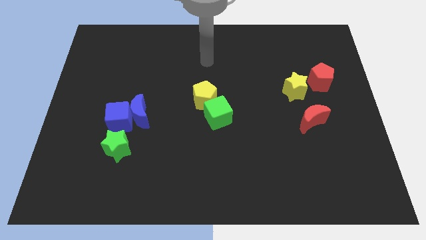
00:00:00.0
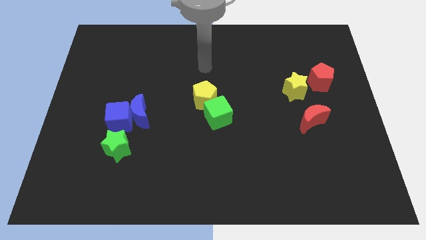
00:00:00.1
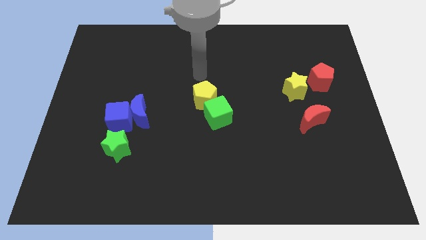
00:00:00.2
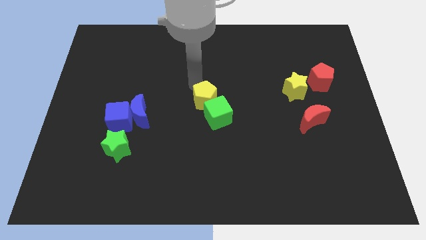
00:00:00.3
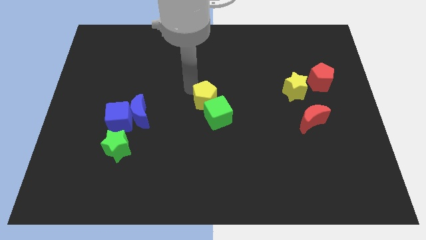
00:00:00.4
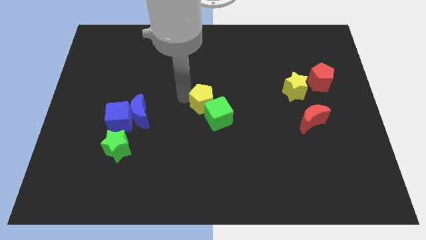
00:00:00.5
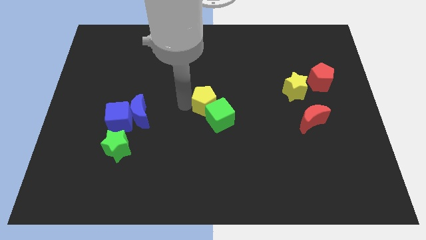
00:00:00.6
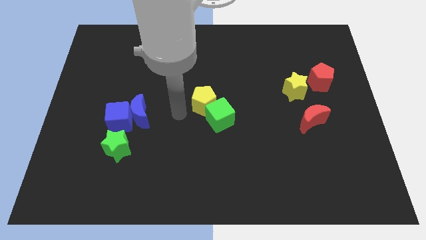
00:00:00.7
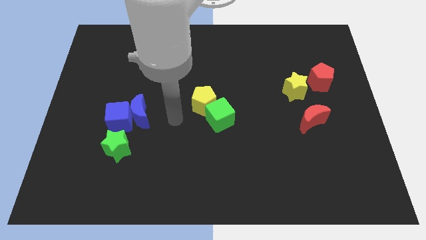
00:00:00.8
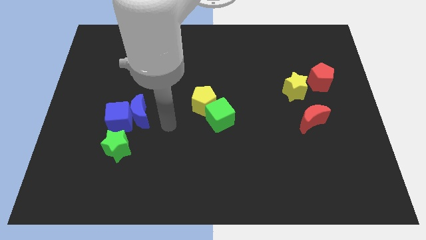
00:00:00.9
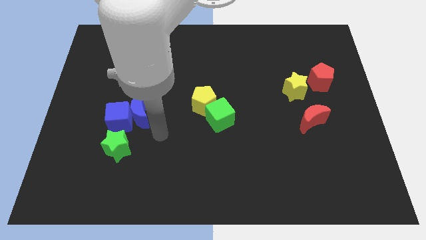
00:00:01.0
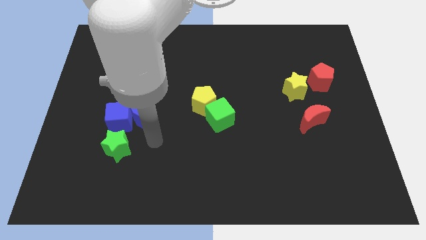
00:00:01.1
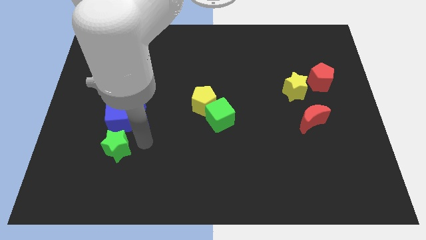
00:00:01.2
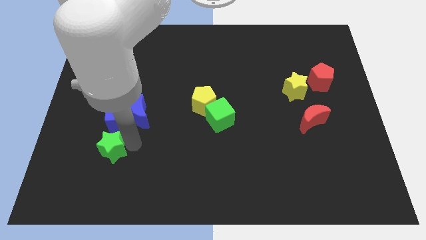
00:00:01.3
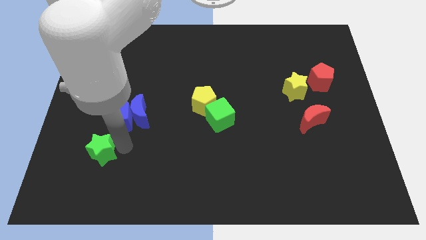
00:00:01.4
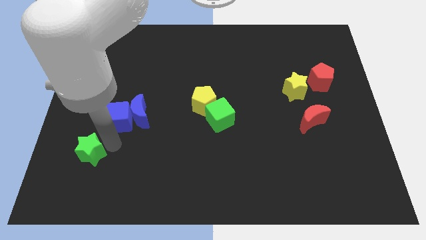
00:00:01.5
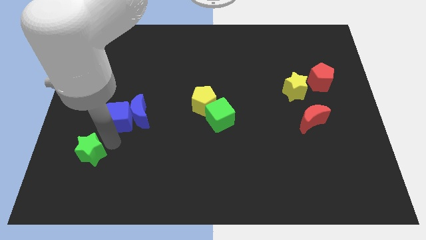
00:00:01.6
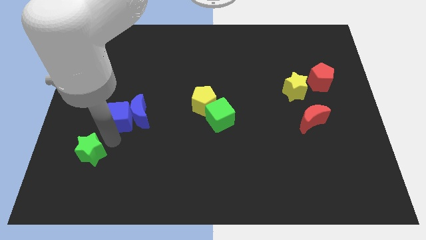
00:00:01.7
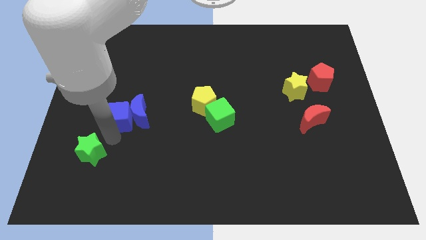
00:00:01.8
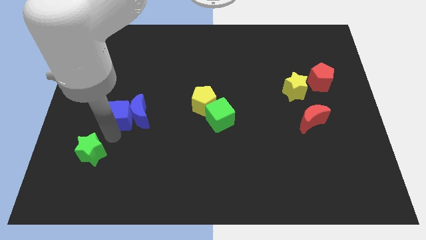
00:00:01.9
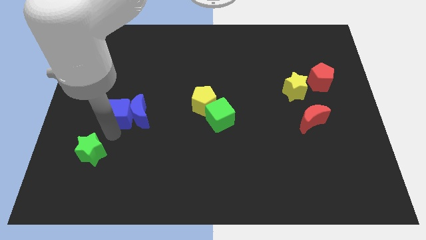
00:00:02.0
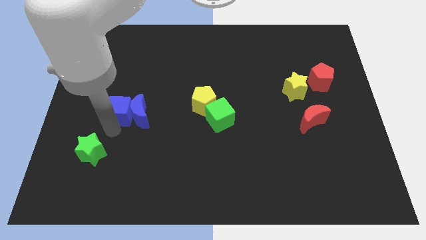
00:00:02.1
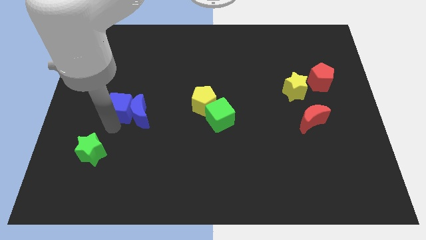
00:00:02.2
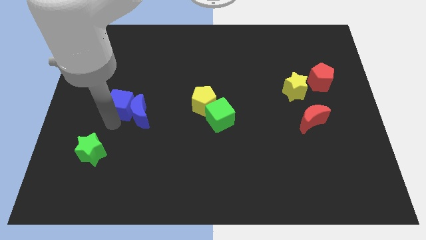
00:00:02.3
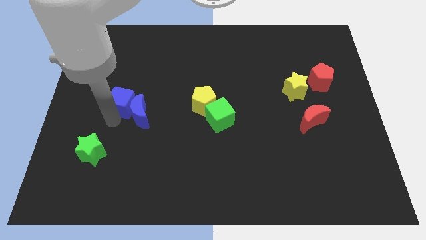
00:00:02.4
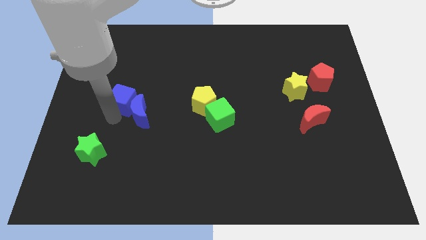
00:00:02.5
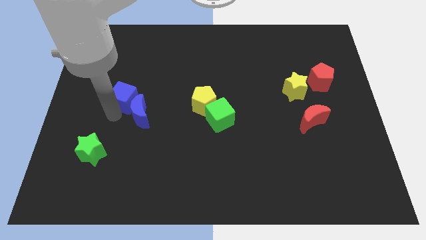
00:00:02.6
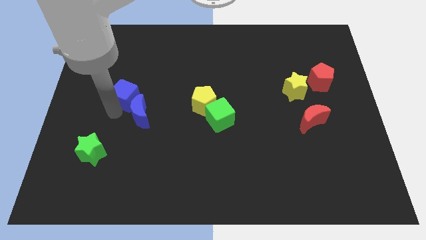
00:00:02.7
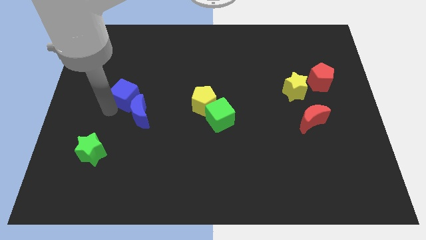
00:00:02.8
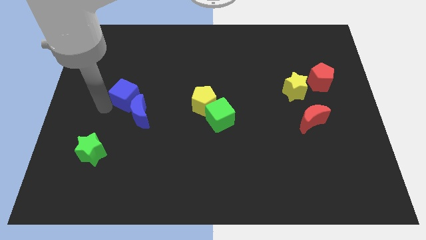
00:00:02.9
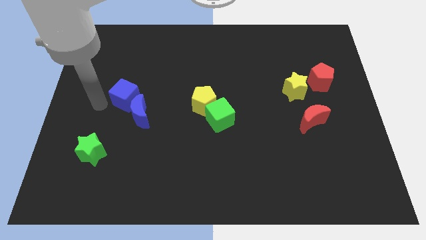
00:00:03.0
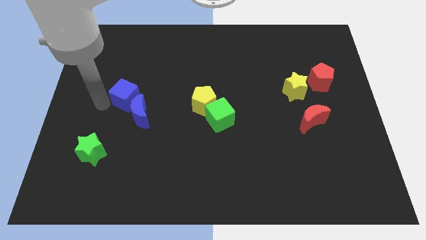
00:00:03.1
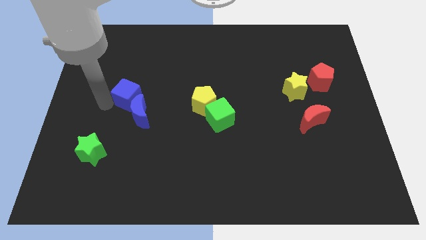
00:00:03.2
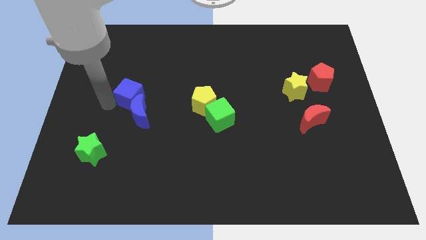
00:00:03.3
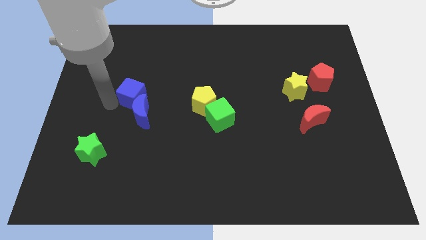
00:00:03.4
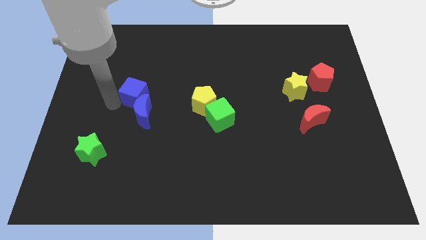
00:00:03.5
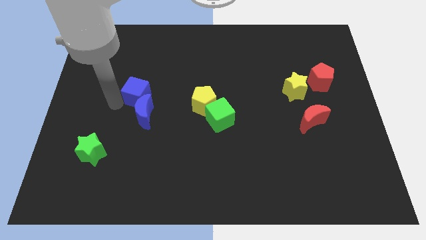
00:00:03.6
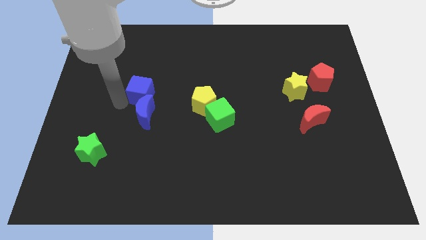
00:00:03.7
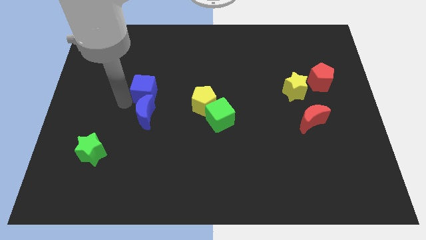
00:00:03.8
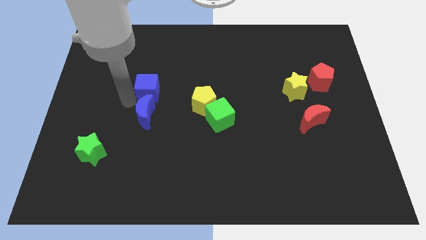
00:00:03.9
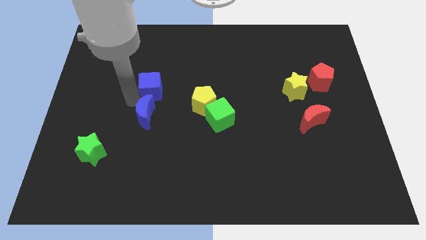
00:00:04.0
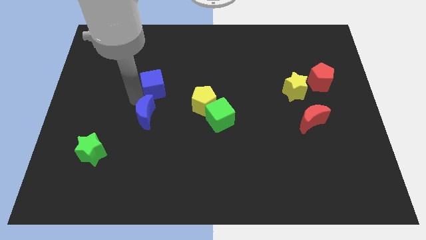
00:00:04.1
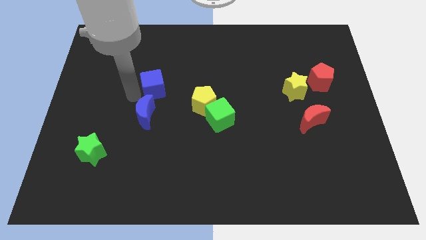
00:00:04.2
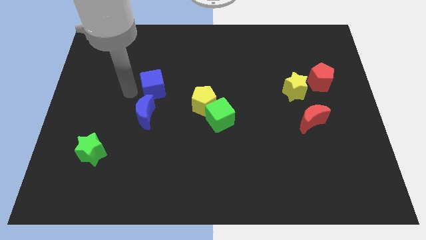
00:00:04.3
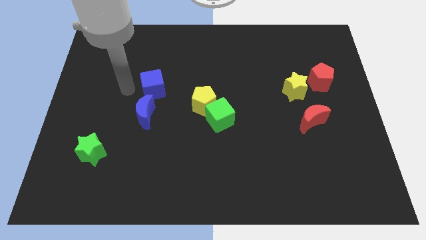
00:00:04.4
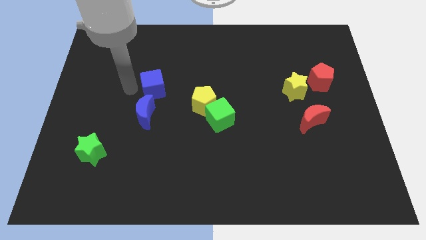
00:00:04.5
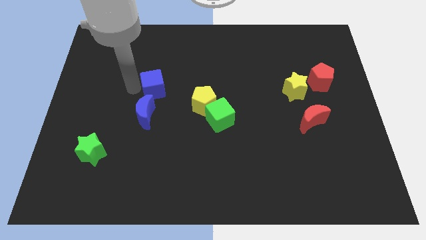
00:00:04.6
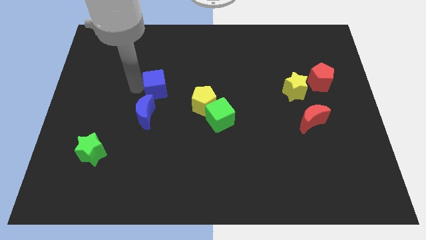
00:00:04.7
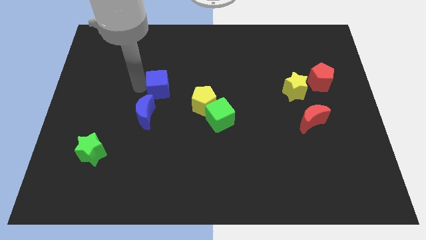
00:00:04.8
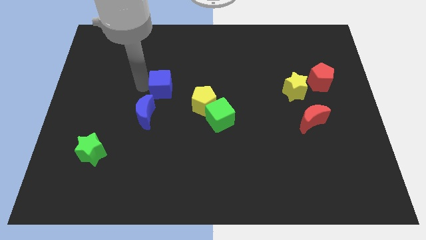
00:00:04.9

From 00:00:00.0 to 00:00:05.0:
move the blue cube diagonally up and to the left of the yellow pentagon

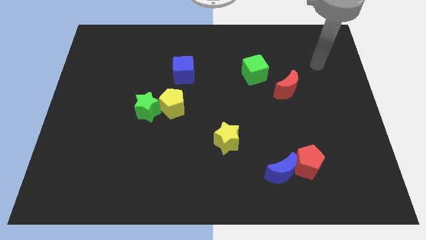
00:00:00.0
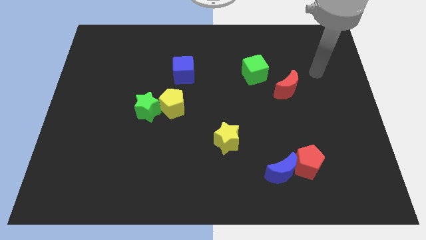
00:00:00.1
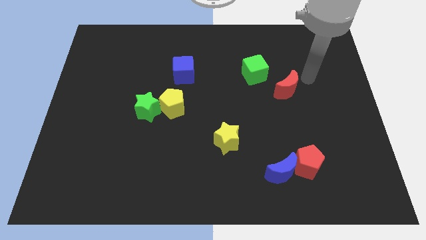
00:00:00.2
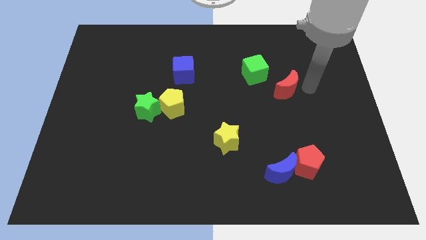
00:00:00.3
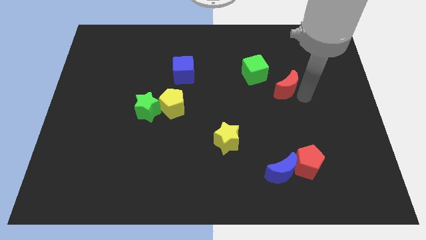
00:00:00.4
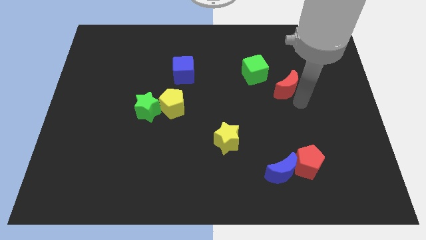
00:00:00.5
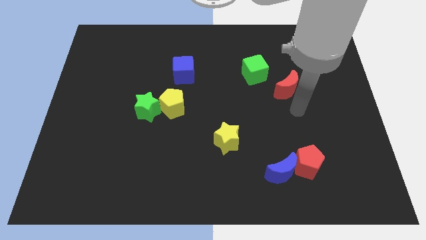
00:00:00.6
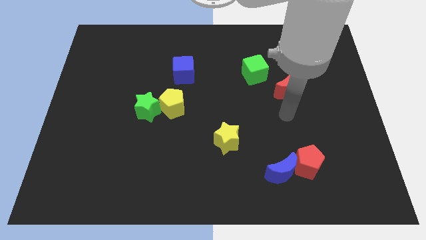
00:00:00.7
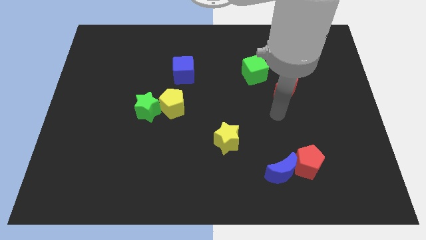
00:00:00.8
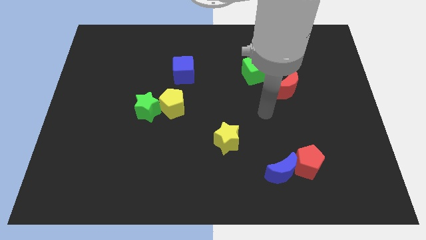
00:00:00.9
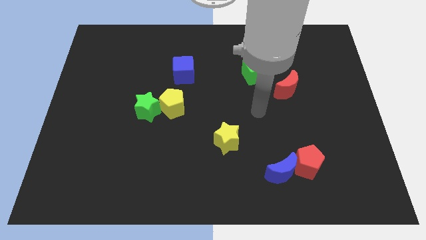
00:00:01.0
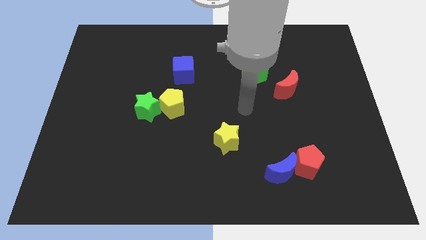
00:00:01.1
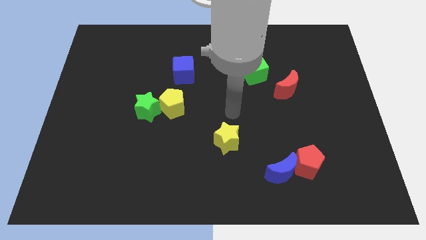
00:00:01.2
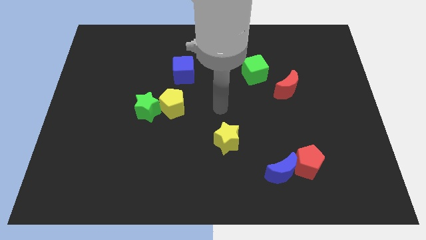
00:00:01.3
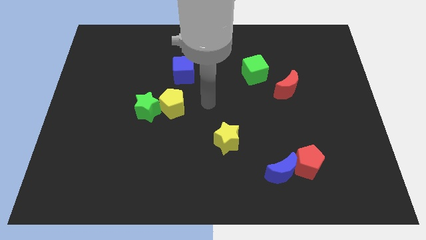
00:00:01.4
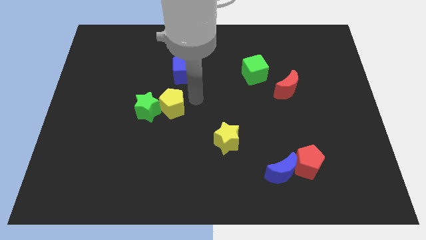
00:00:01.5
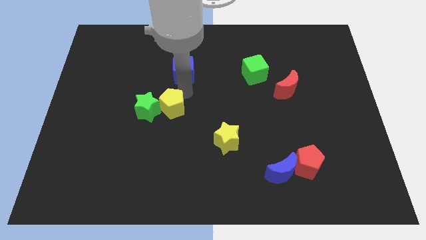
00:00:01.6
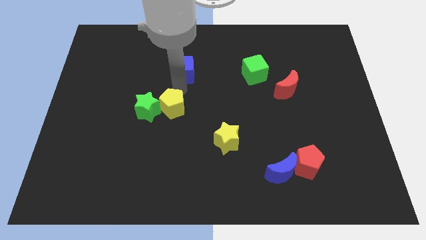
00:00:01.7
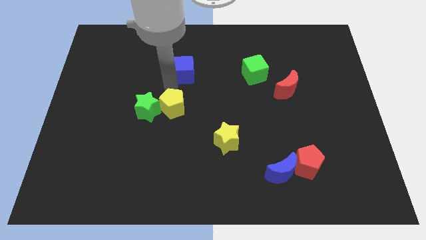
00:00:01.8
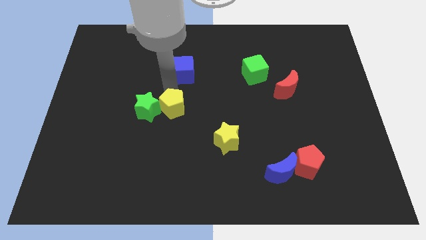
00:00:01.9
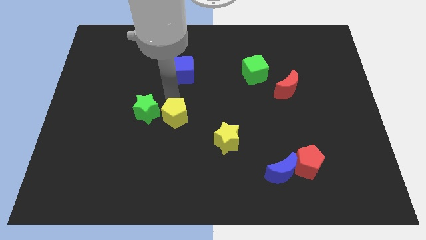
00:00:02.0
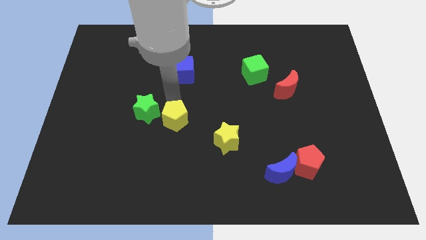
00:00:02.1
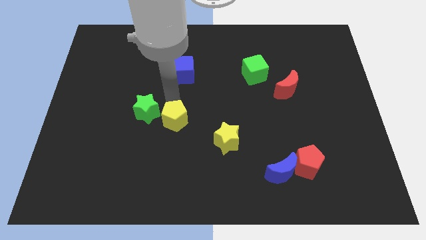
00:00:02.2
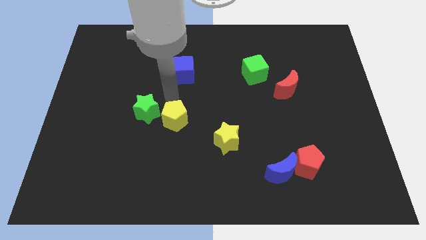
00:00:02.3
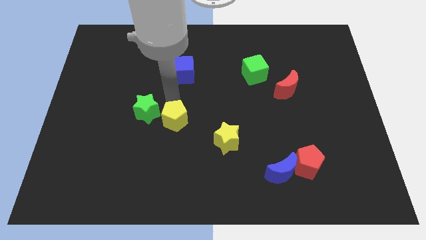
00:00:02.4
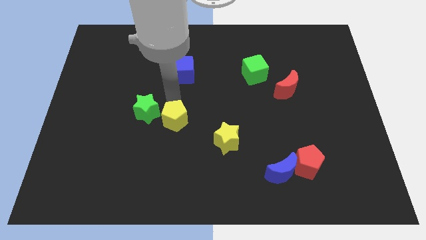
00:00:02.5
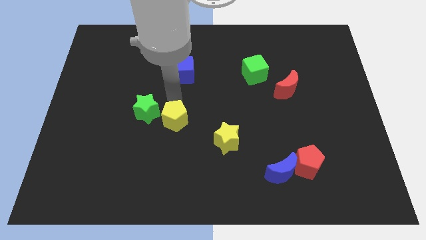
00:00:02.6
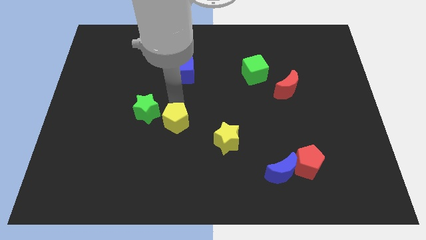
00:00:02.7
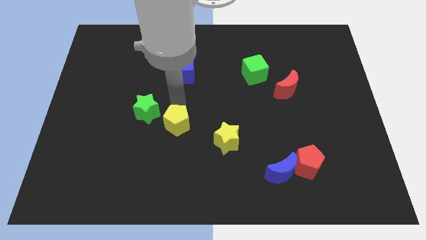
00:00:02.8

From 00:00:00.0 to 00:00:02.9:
slide the yellow pentagon left of the yellow star
